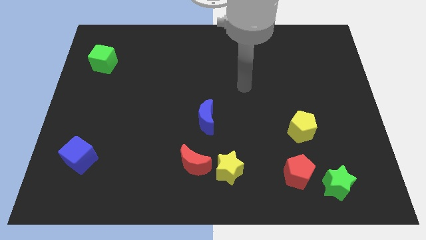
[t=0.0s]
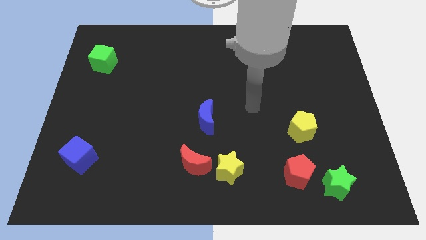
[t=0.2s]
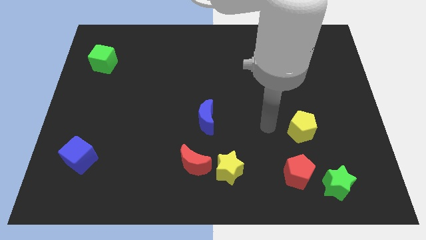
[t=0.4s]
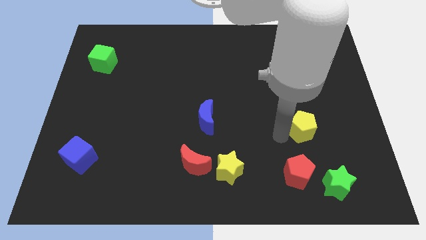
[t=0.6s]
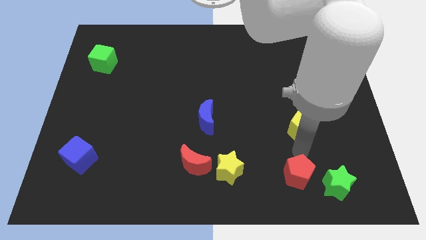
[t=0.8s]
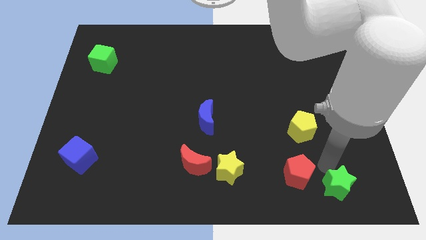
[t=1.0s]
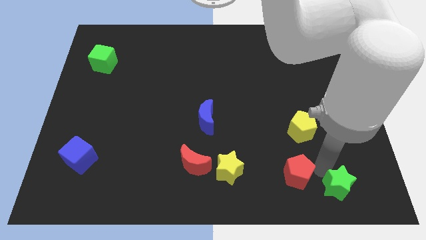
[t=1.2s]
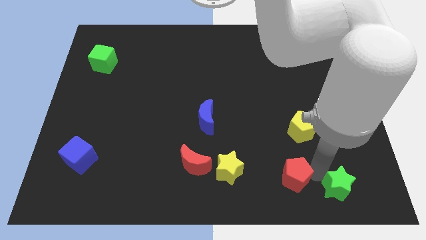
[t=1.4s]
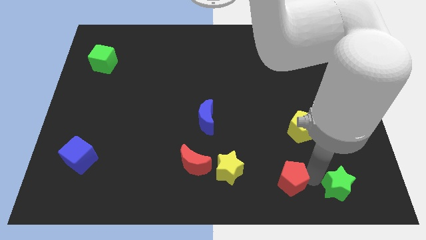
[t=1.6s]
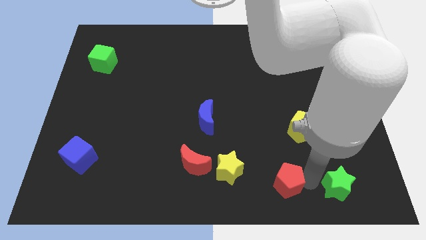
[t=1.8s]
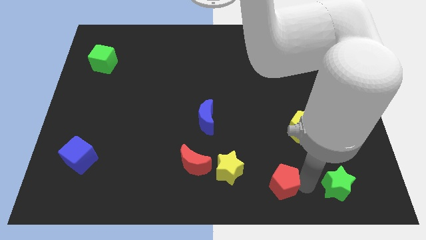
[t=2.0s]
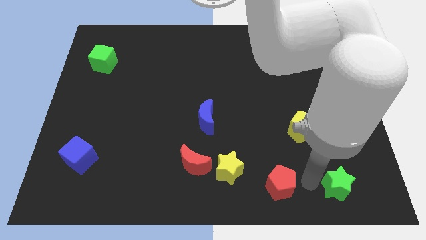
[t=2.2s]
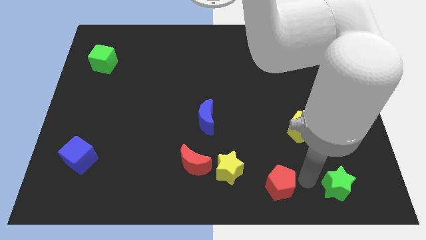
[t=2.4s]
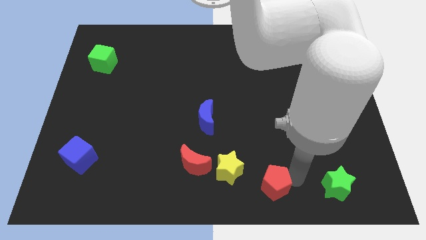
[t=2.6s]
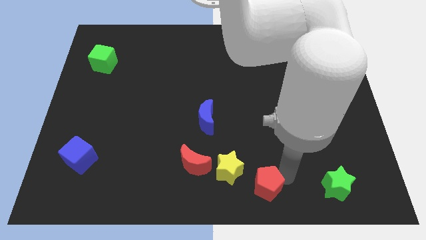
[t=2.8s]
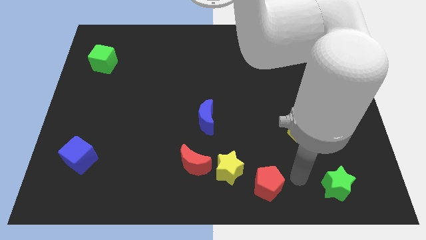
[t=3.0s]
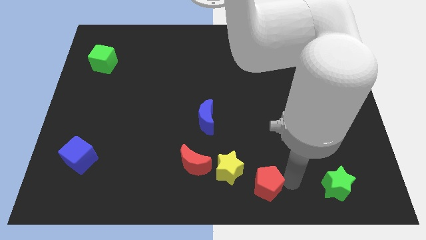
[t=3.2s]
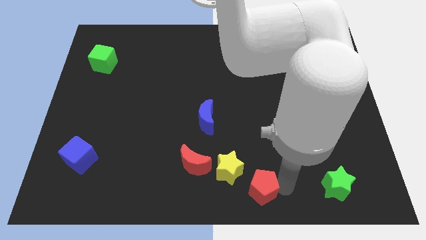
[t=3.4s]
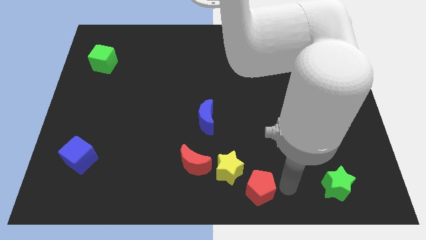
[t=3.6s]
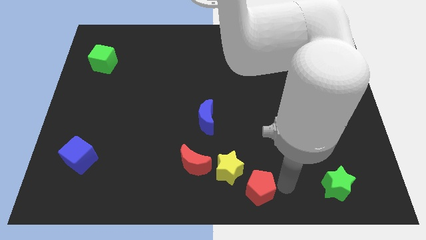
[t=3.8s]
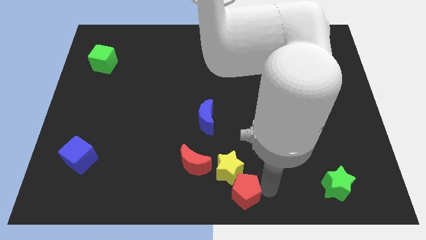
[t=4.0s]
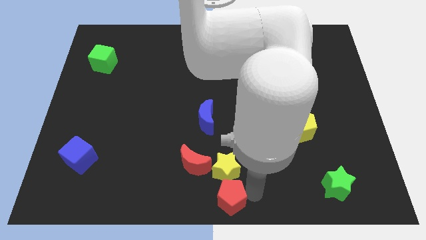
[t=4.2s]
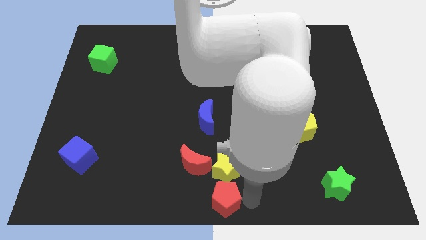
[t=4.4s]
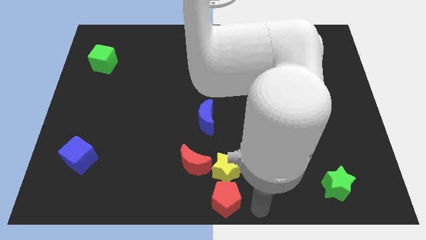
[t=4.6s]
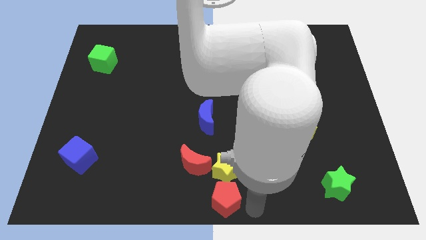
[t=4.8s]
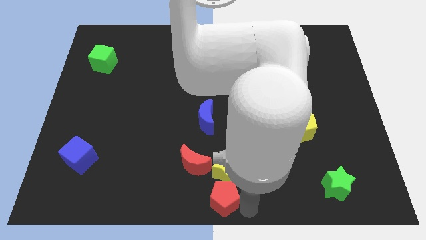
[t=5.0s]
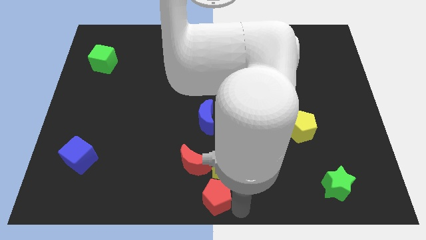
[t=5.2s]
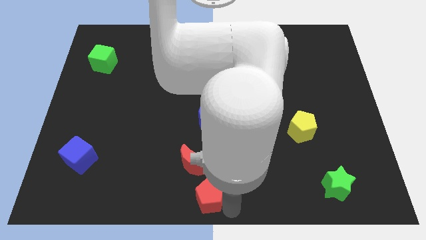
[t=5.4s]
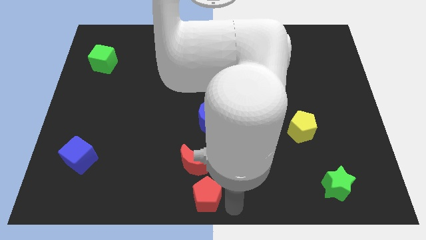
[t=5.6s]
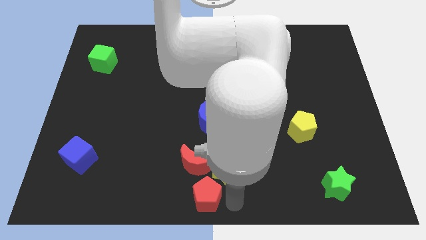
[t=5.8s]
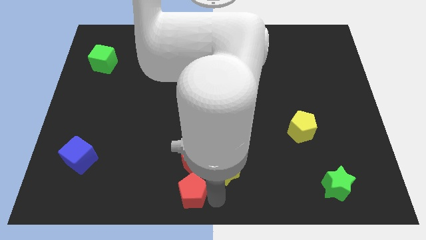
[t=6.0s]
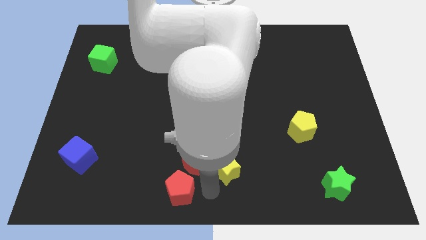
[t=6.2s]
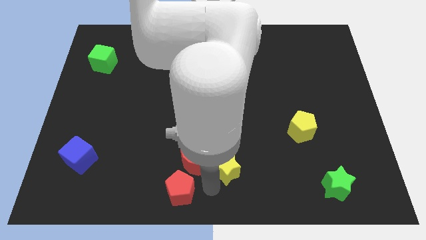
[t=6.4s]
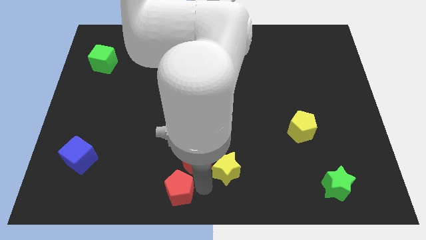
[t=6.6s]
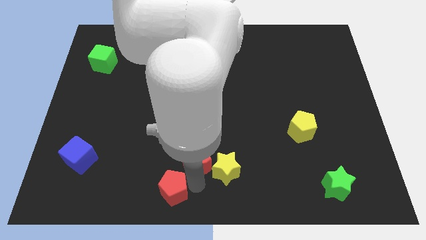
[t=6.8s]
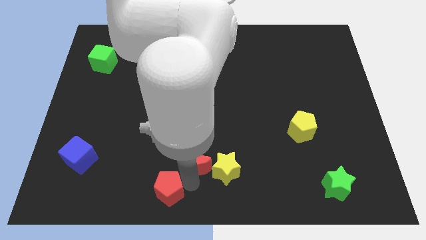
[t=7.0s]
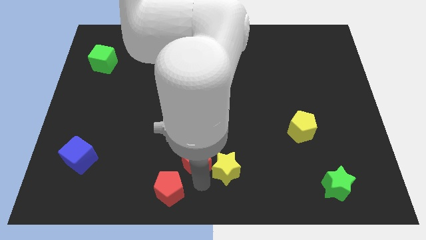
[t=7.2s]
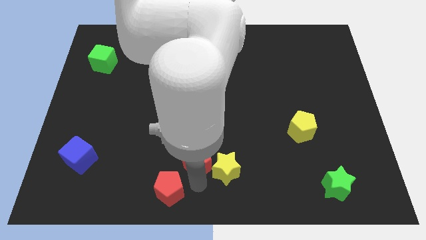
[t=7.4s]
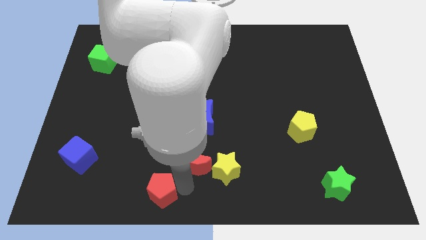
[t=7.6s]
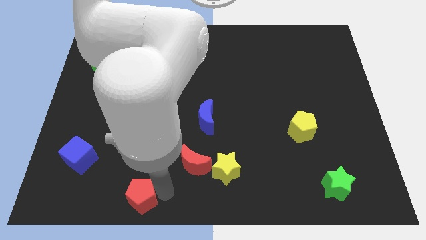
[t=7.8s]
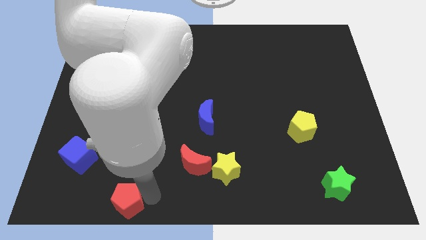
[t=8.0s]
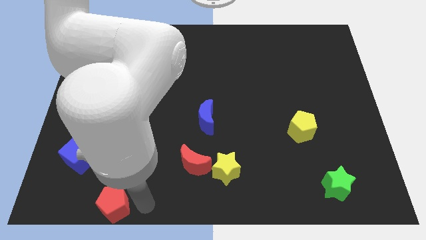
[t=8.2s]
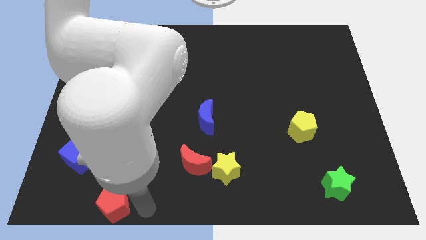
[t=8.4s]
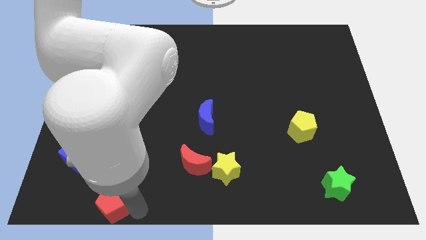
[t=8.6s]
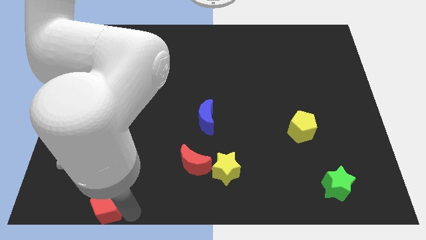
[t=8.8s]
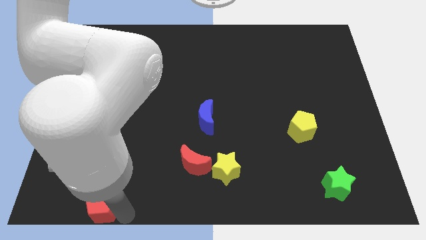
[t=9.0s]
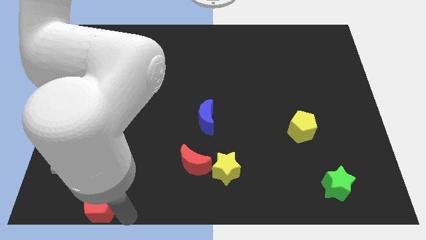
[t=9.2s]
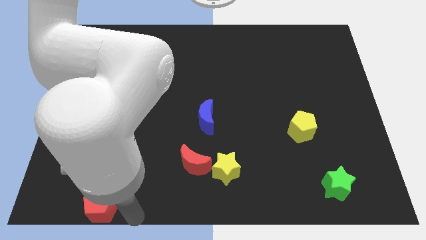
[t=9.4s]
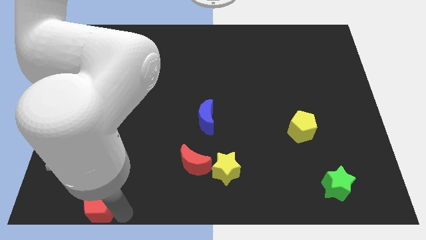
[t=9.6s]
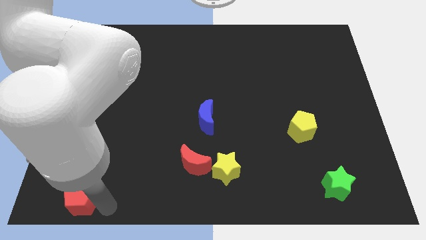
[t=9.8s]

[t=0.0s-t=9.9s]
push the red pentagon to the lower left corner
